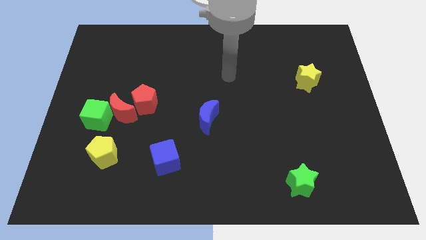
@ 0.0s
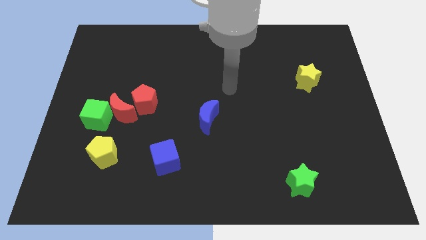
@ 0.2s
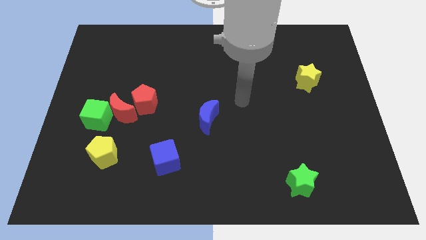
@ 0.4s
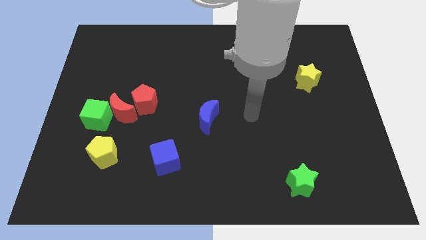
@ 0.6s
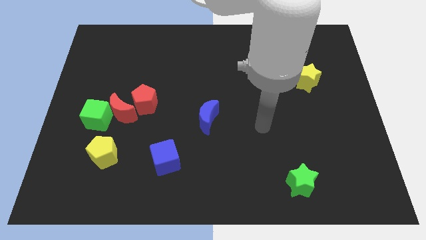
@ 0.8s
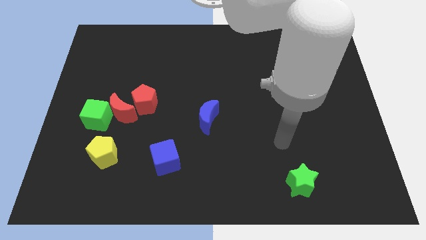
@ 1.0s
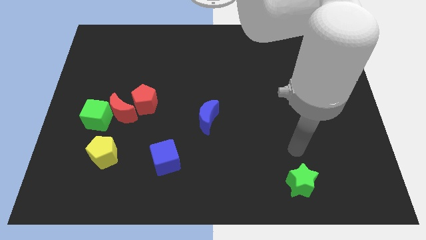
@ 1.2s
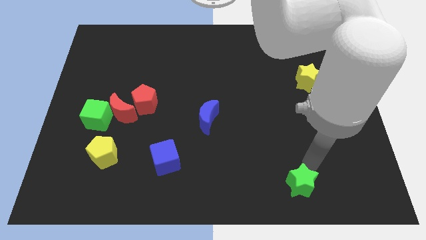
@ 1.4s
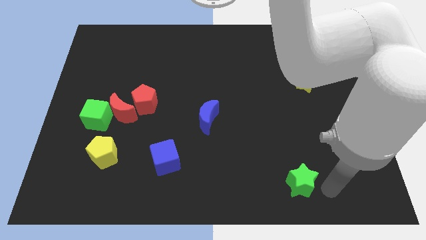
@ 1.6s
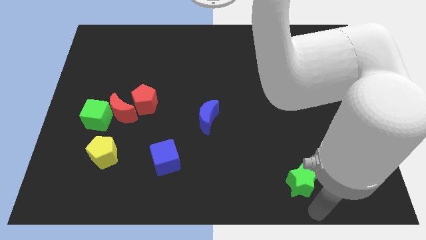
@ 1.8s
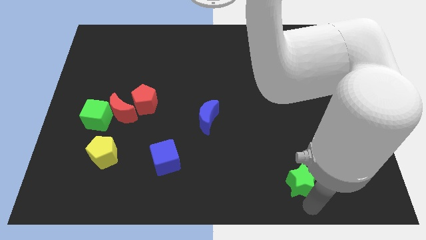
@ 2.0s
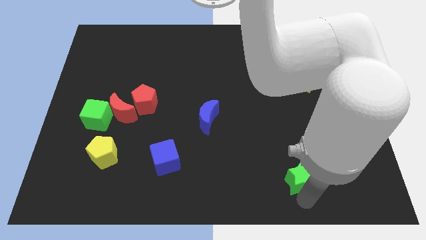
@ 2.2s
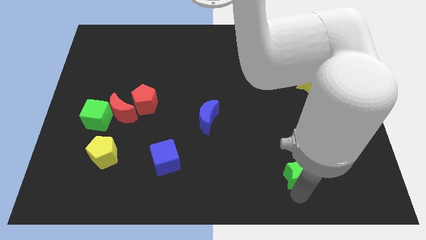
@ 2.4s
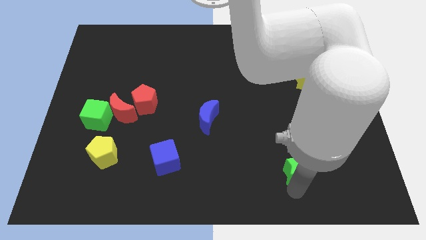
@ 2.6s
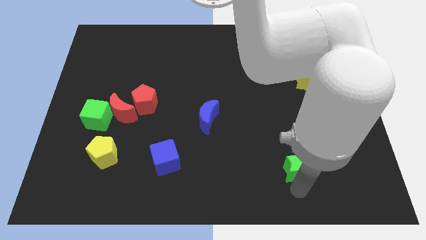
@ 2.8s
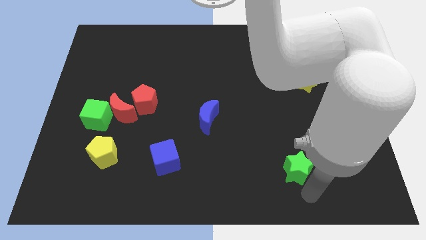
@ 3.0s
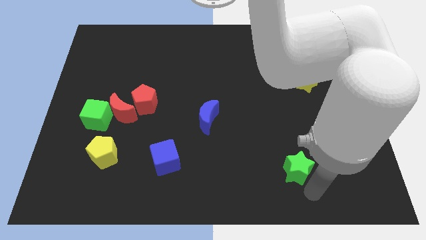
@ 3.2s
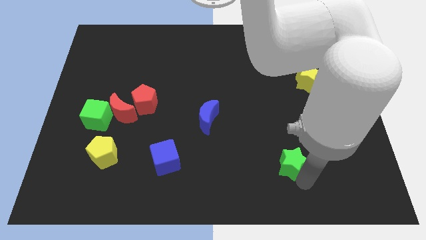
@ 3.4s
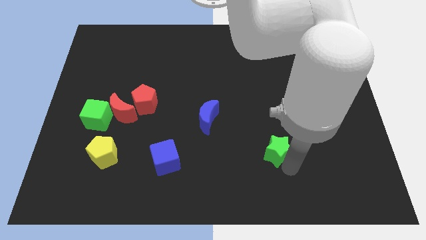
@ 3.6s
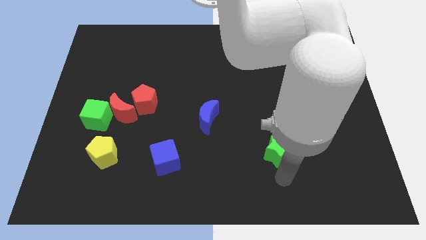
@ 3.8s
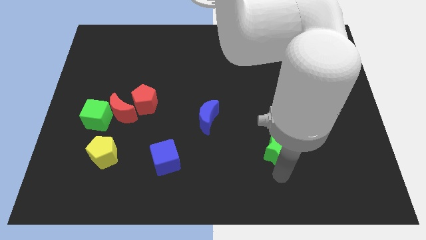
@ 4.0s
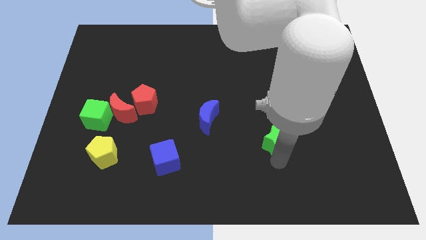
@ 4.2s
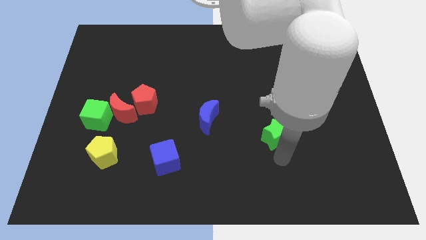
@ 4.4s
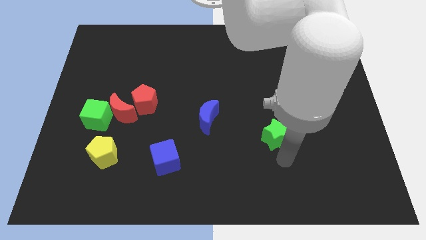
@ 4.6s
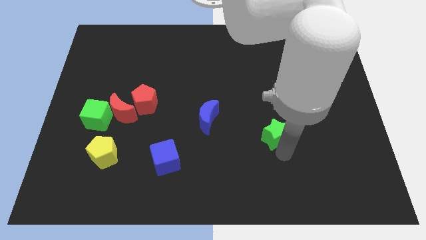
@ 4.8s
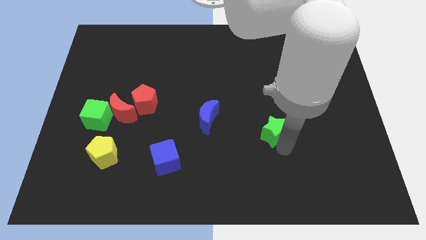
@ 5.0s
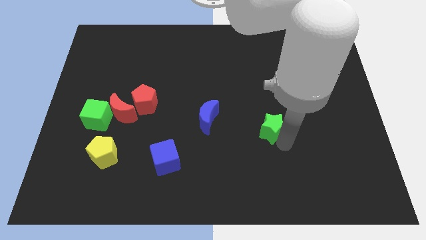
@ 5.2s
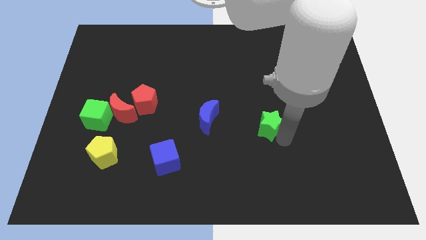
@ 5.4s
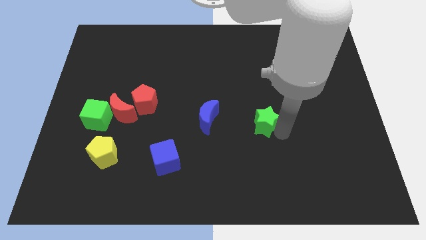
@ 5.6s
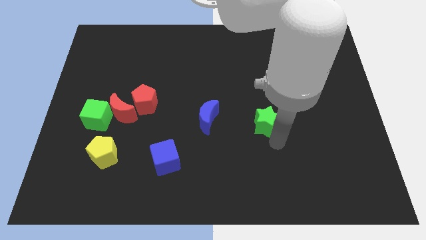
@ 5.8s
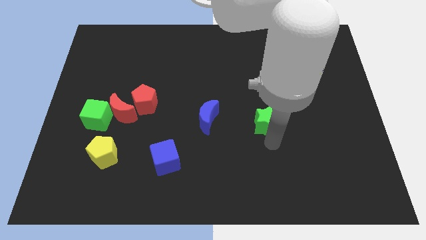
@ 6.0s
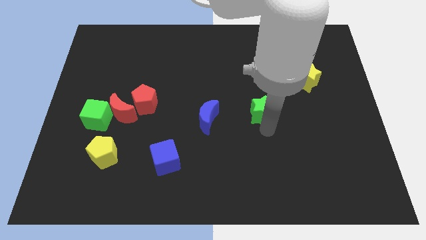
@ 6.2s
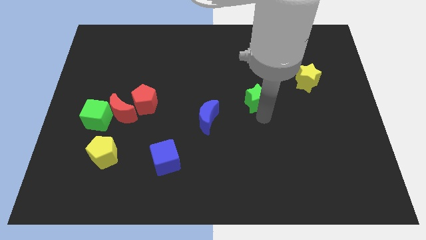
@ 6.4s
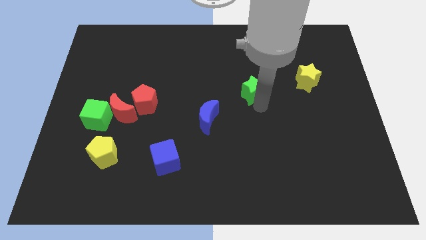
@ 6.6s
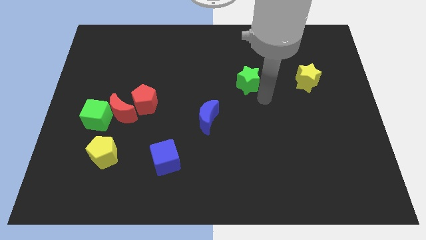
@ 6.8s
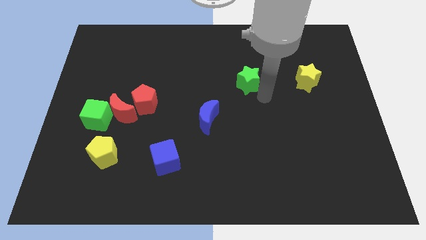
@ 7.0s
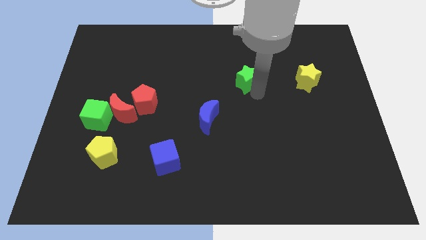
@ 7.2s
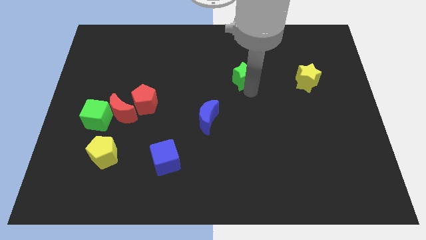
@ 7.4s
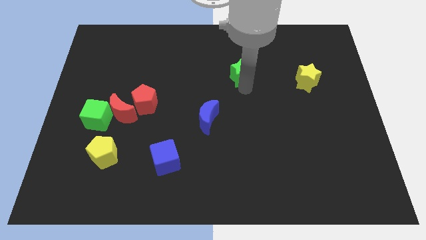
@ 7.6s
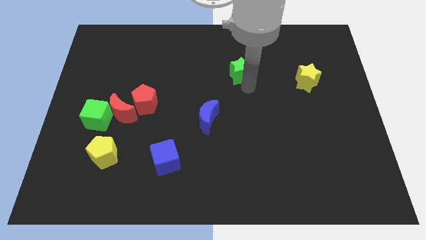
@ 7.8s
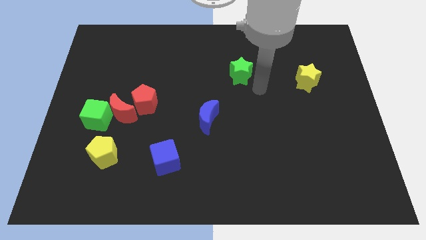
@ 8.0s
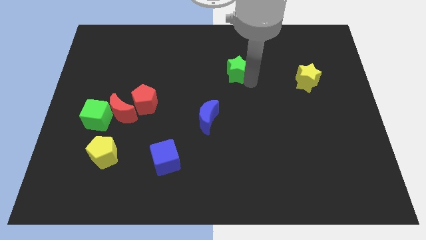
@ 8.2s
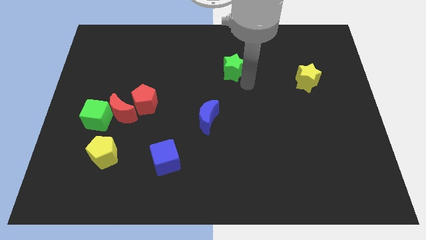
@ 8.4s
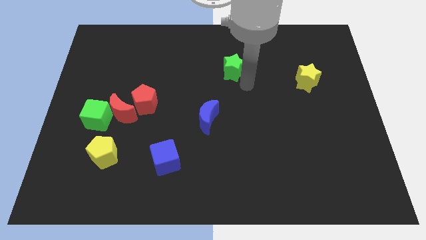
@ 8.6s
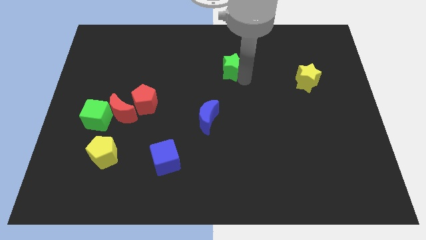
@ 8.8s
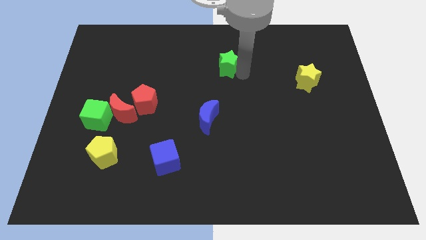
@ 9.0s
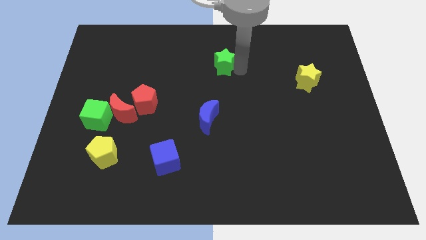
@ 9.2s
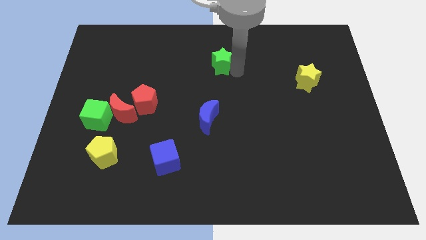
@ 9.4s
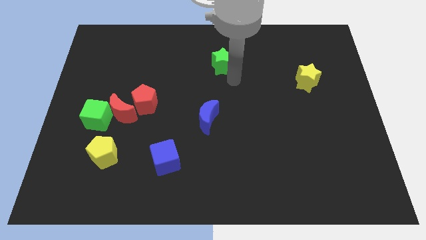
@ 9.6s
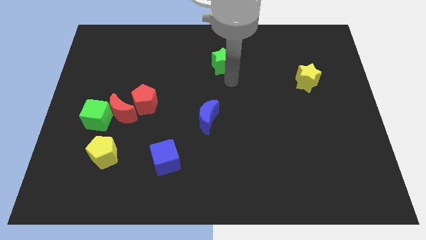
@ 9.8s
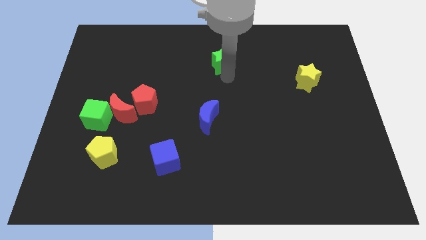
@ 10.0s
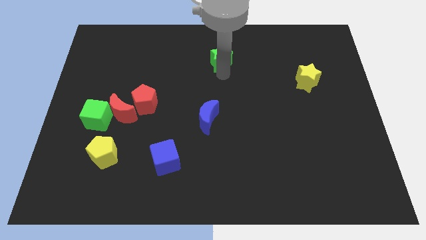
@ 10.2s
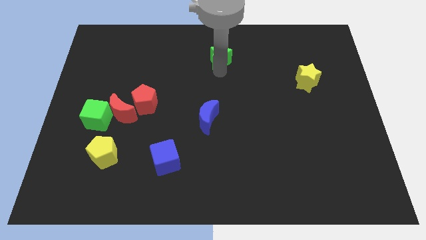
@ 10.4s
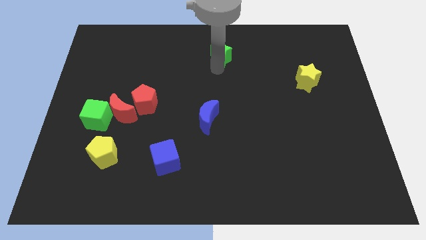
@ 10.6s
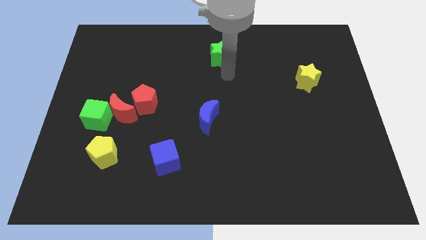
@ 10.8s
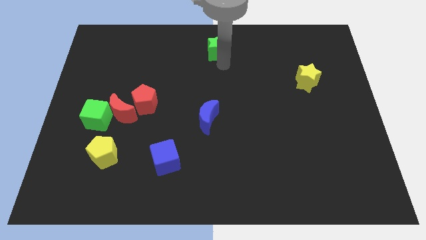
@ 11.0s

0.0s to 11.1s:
put the green star to the top
